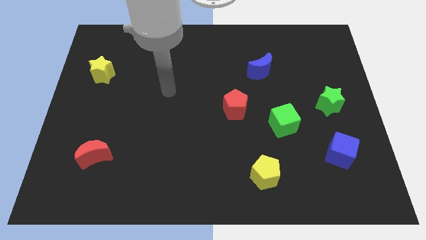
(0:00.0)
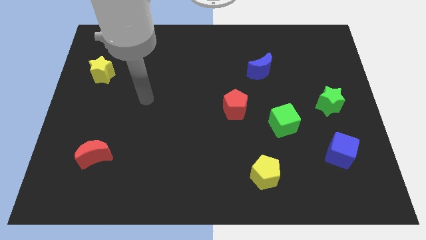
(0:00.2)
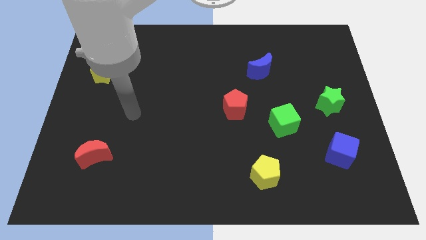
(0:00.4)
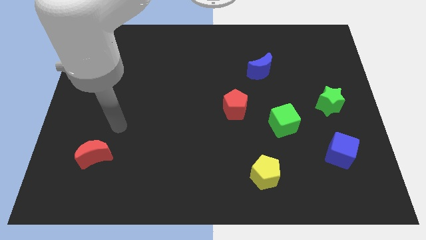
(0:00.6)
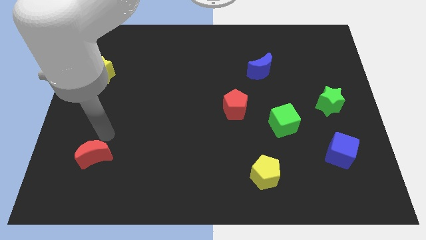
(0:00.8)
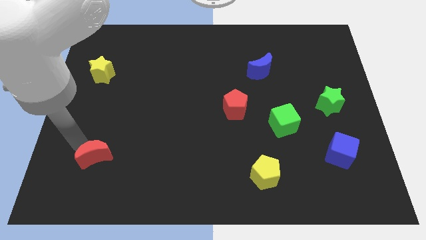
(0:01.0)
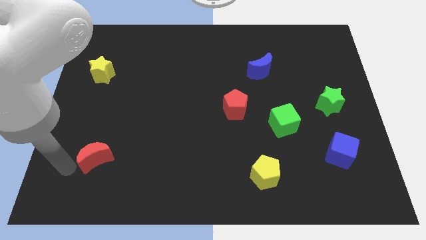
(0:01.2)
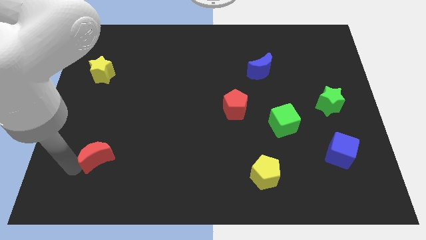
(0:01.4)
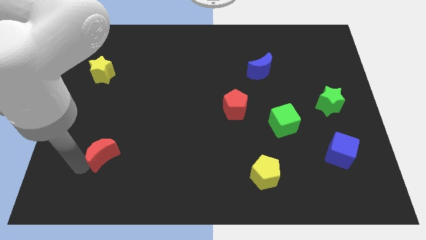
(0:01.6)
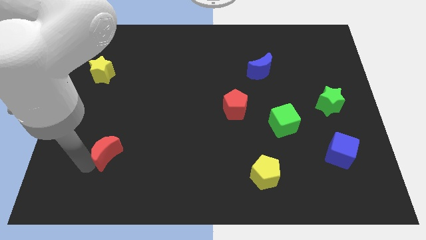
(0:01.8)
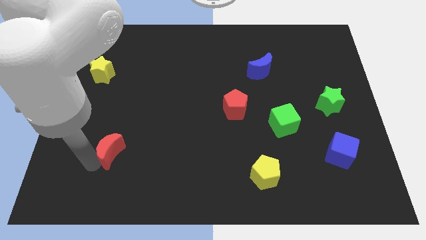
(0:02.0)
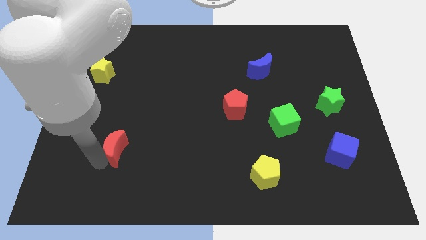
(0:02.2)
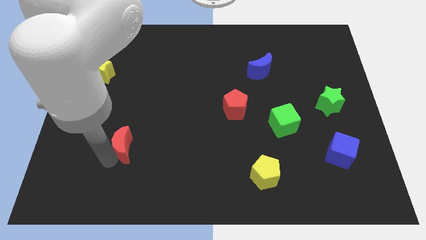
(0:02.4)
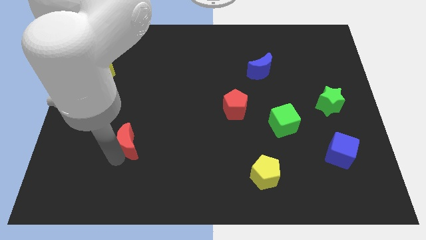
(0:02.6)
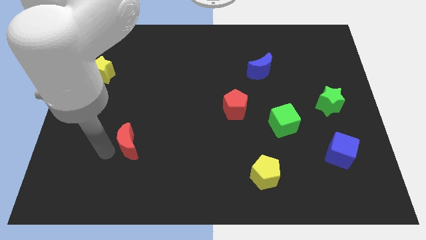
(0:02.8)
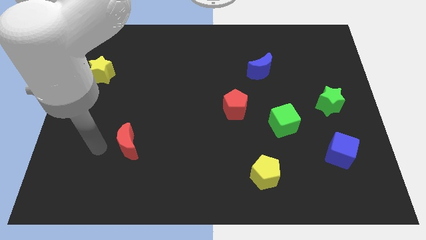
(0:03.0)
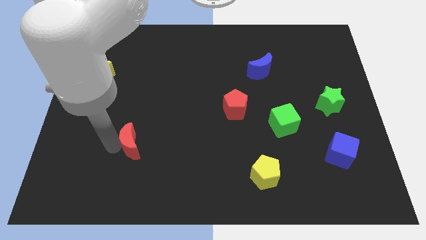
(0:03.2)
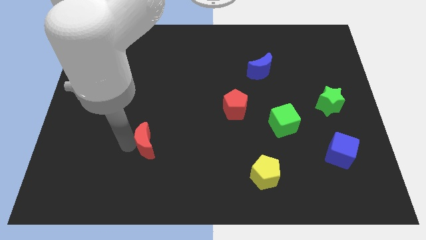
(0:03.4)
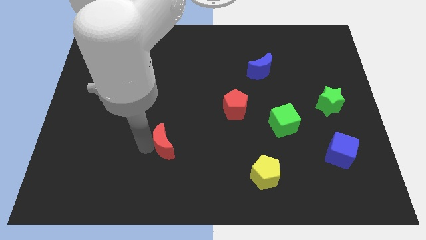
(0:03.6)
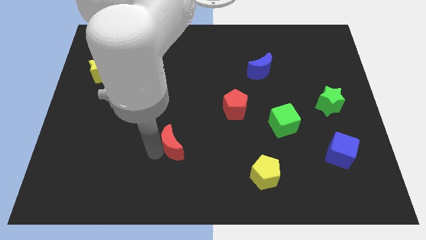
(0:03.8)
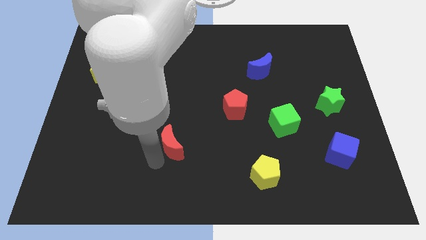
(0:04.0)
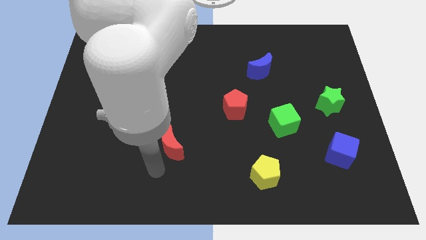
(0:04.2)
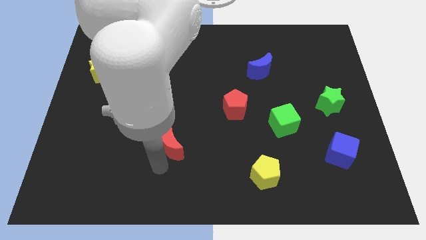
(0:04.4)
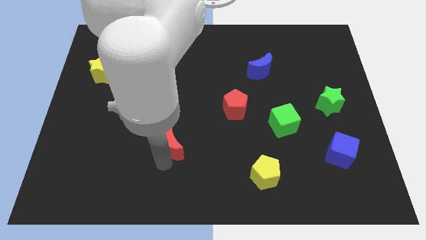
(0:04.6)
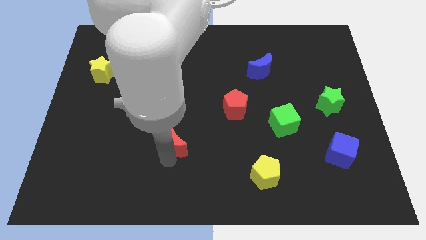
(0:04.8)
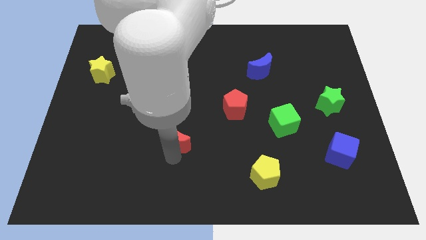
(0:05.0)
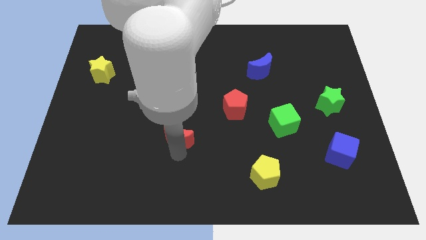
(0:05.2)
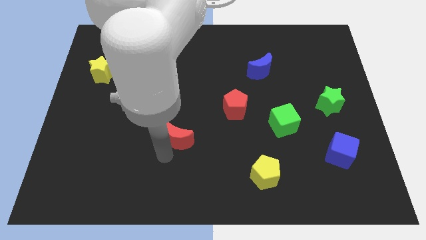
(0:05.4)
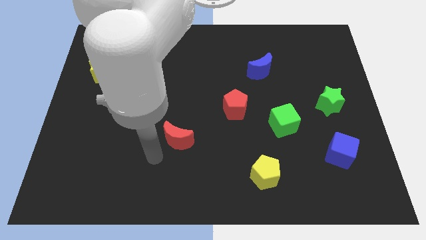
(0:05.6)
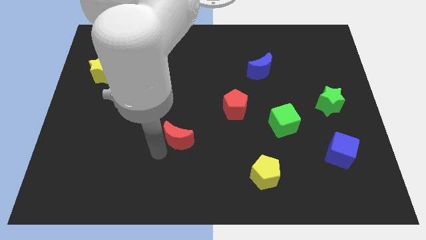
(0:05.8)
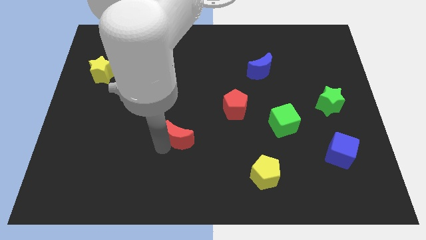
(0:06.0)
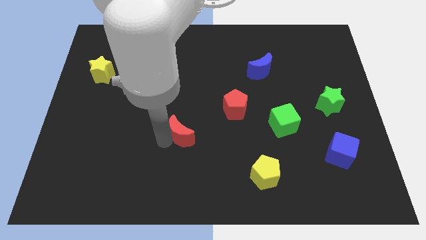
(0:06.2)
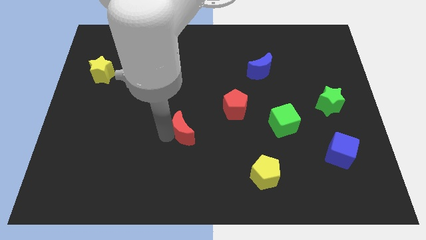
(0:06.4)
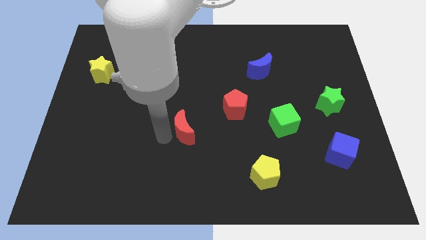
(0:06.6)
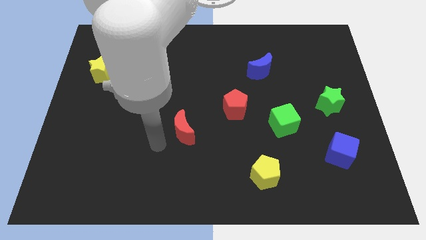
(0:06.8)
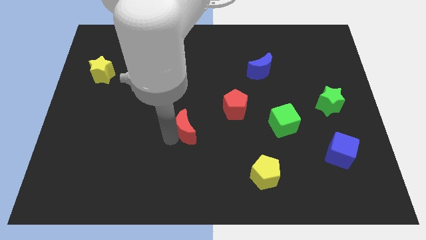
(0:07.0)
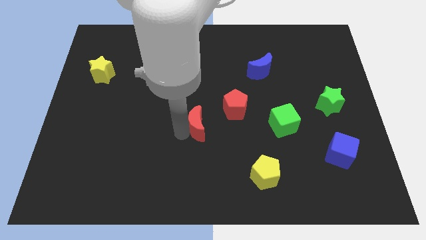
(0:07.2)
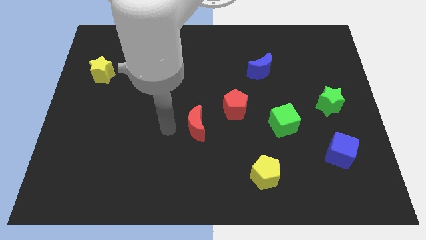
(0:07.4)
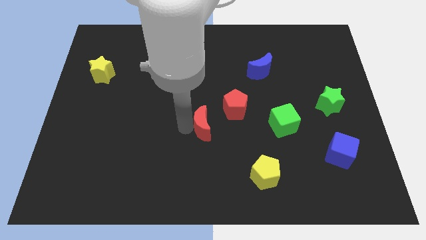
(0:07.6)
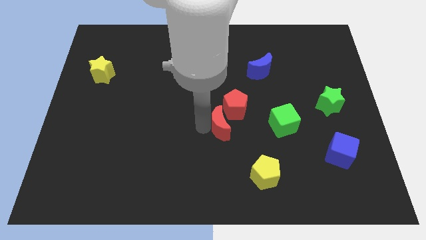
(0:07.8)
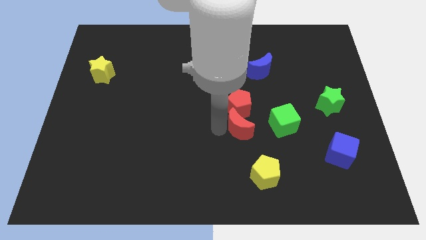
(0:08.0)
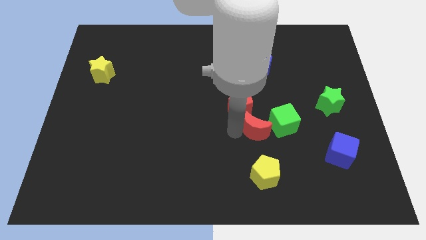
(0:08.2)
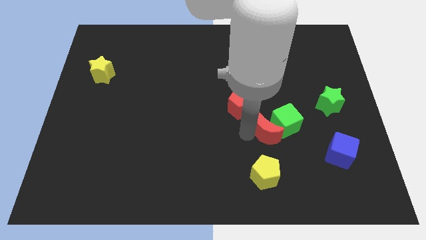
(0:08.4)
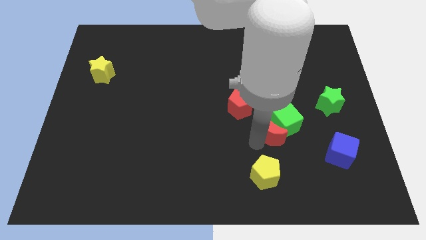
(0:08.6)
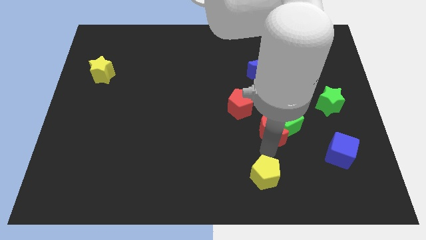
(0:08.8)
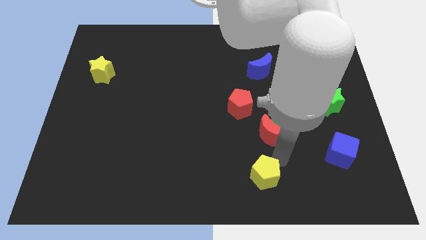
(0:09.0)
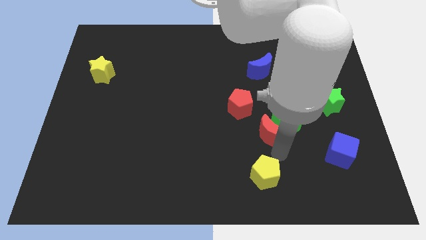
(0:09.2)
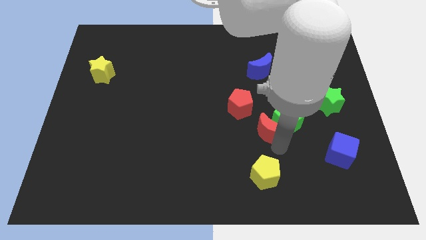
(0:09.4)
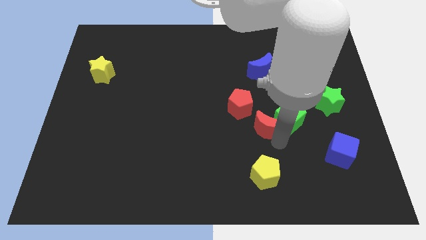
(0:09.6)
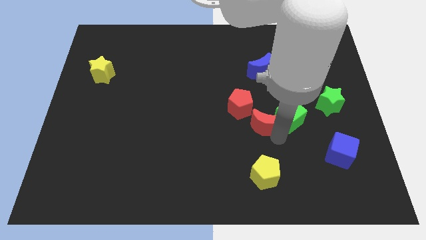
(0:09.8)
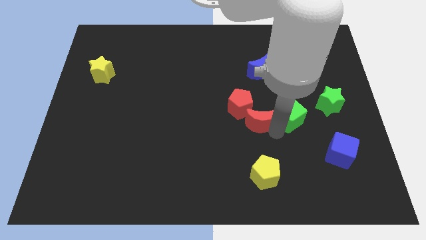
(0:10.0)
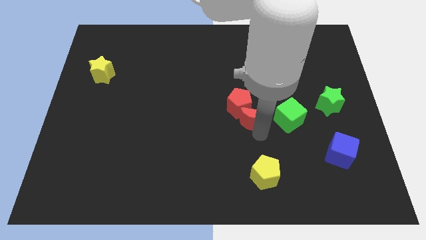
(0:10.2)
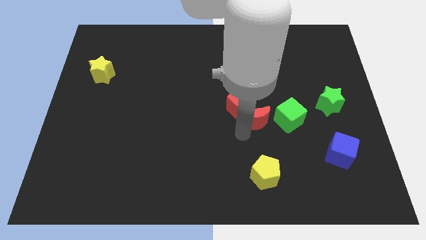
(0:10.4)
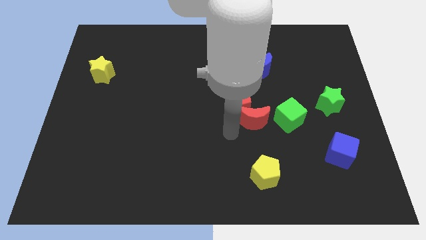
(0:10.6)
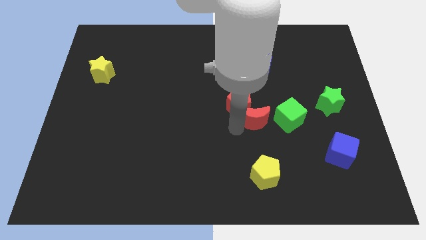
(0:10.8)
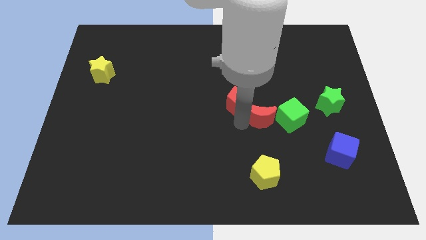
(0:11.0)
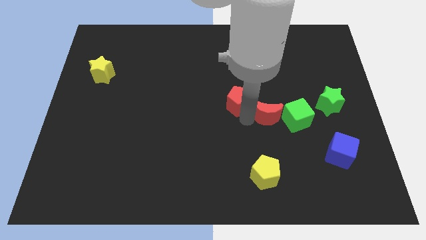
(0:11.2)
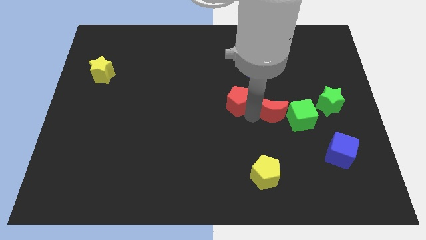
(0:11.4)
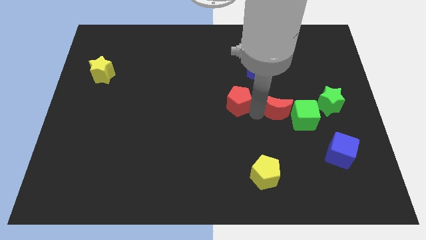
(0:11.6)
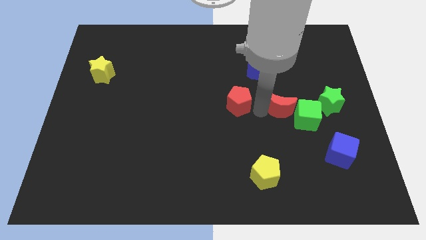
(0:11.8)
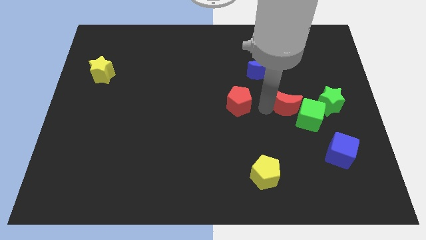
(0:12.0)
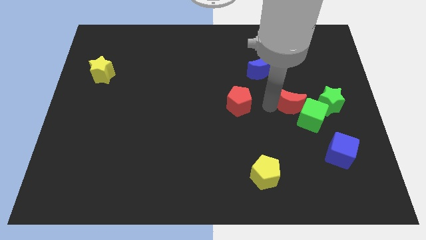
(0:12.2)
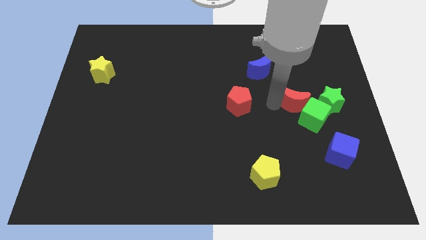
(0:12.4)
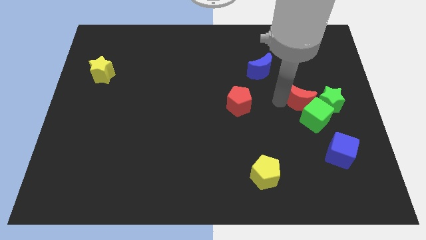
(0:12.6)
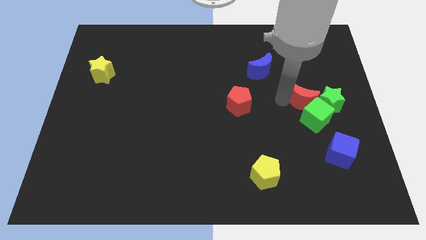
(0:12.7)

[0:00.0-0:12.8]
push the red moon next to the green star

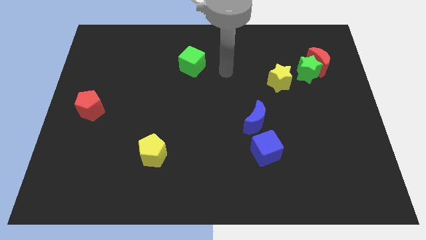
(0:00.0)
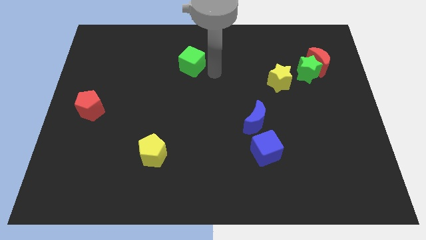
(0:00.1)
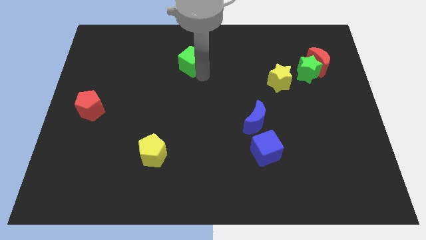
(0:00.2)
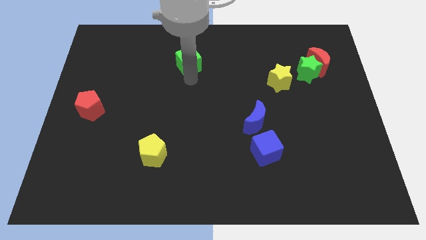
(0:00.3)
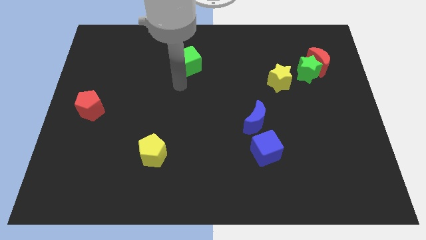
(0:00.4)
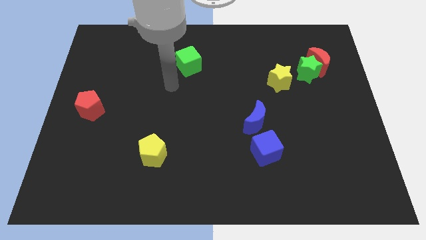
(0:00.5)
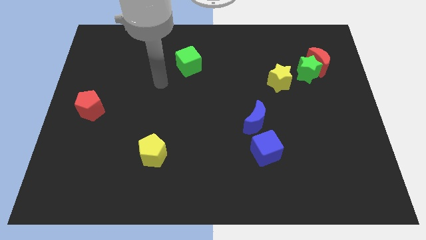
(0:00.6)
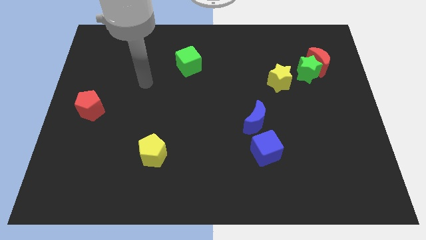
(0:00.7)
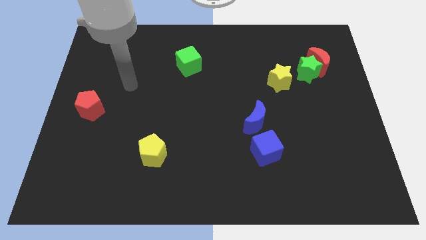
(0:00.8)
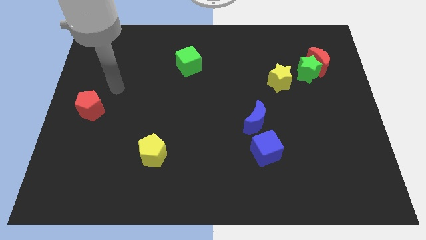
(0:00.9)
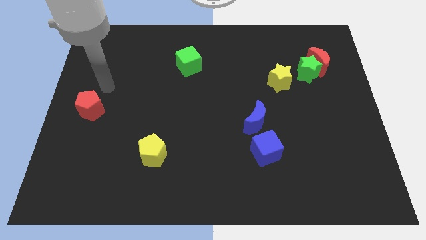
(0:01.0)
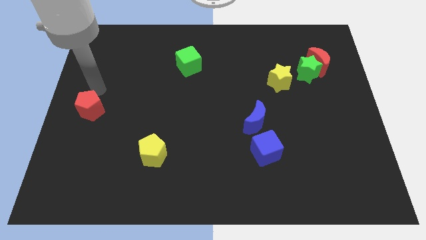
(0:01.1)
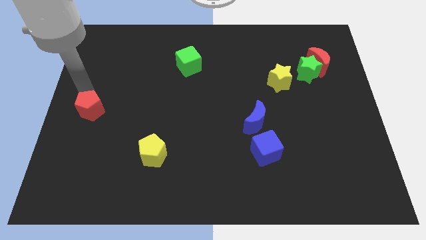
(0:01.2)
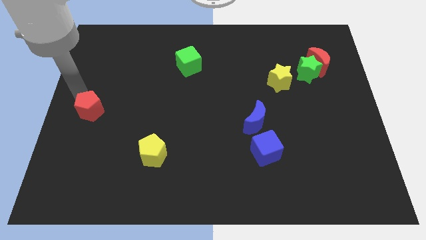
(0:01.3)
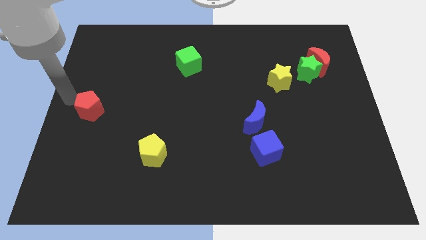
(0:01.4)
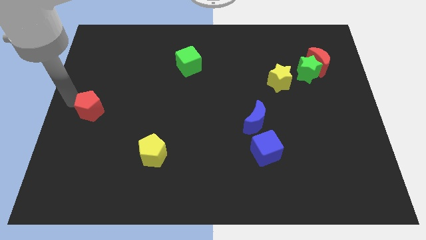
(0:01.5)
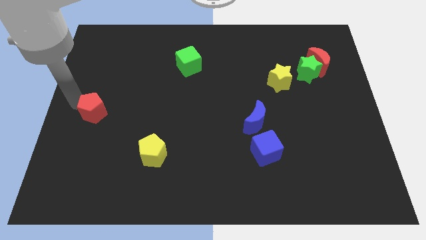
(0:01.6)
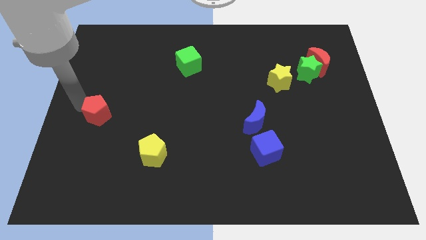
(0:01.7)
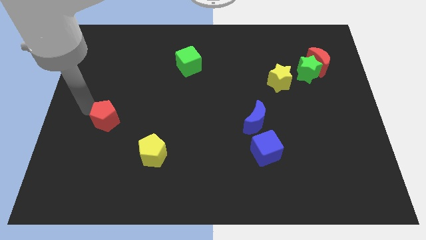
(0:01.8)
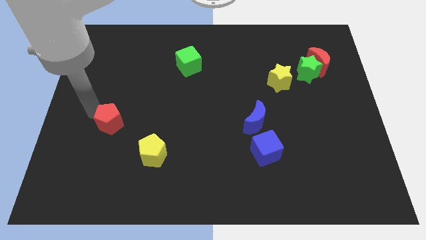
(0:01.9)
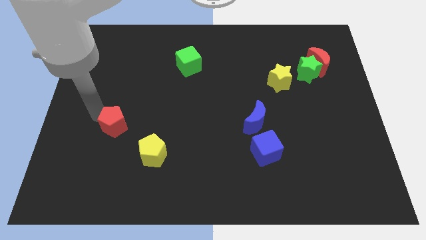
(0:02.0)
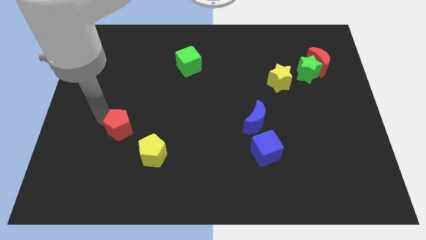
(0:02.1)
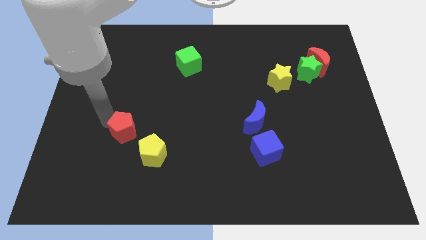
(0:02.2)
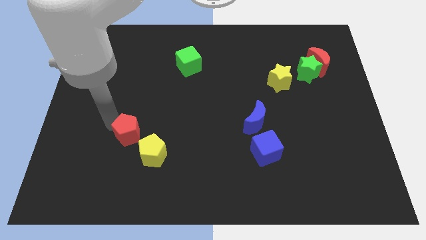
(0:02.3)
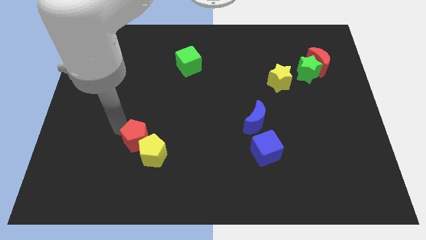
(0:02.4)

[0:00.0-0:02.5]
move the red pentagon close to the yellow pentagon
